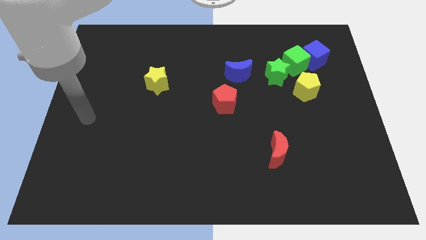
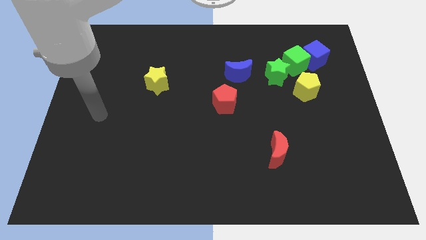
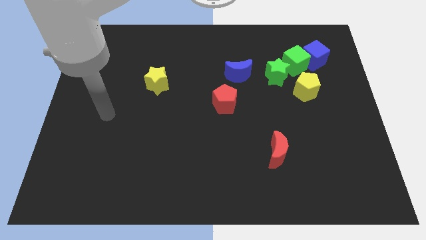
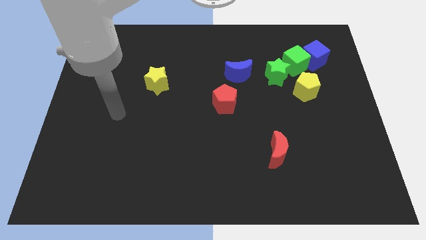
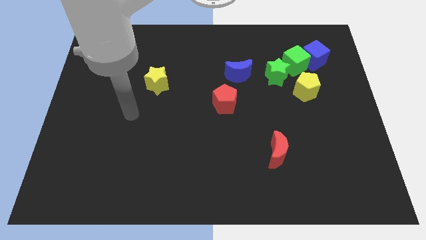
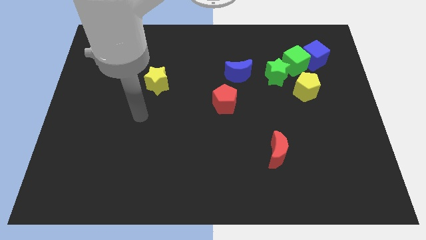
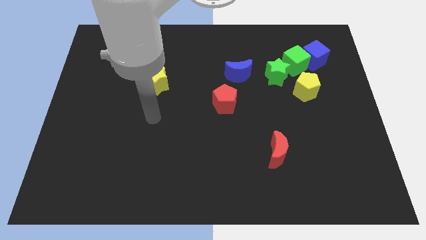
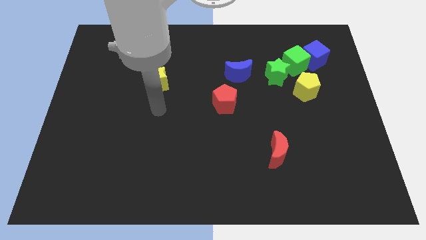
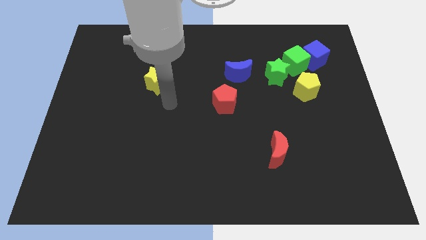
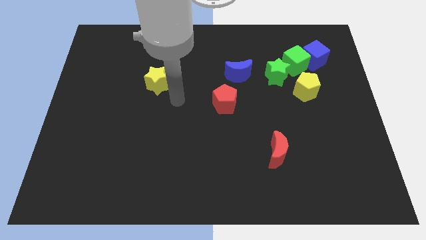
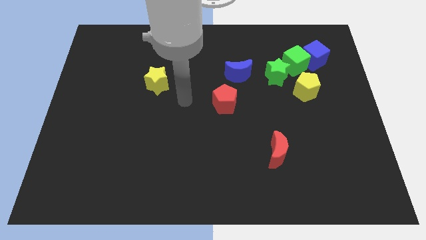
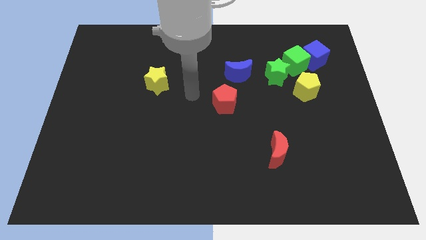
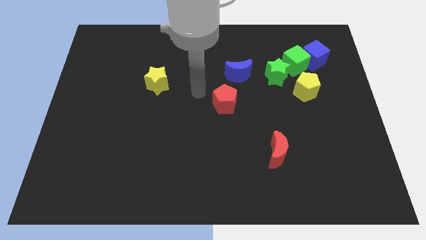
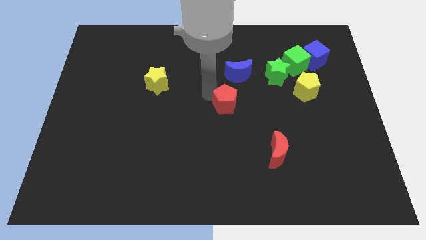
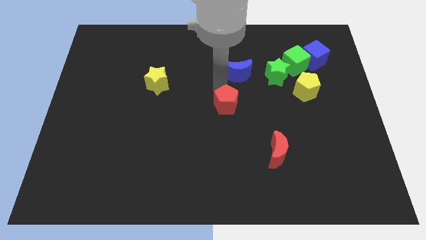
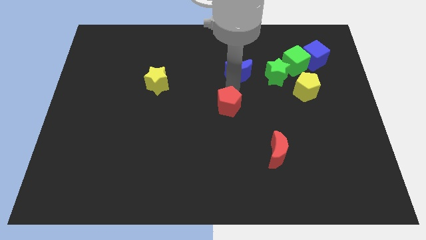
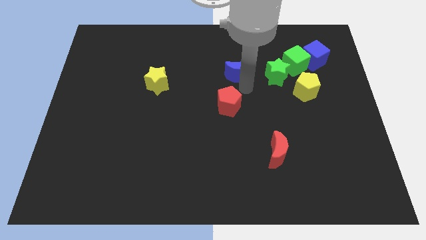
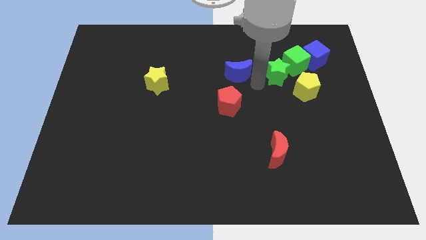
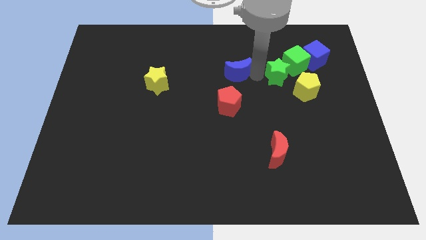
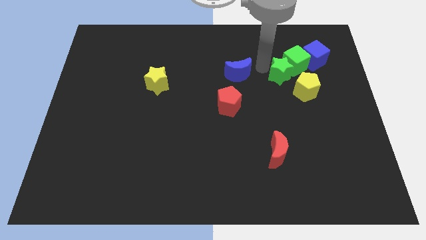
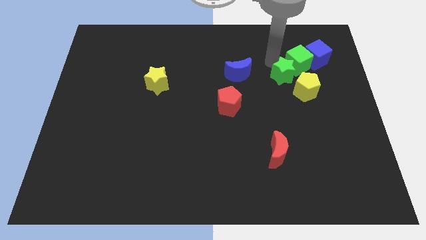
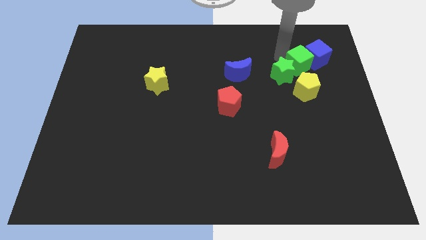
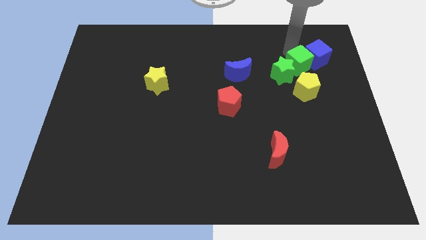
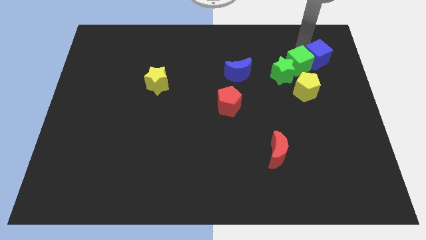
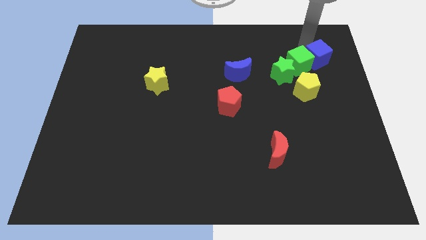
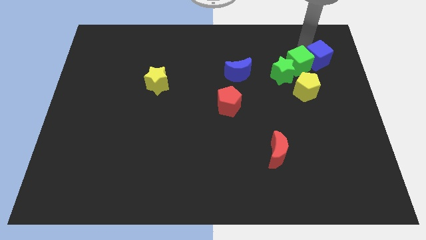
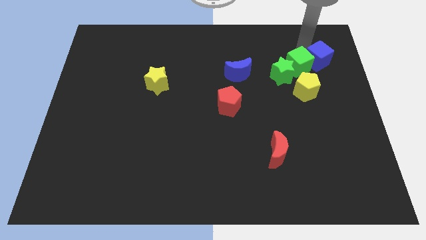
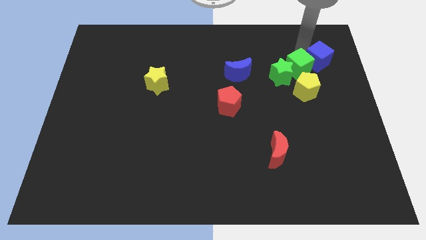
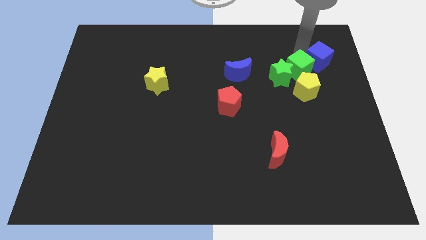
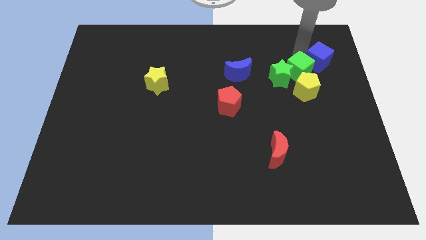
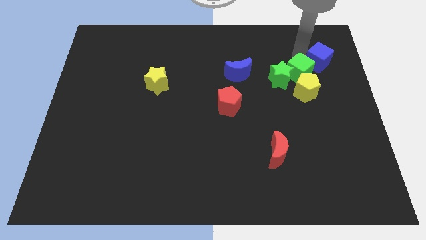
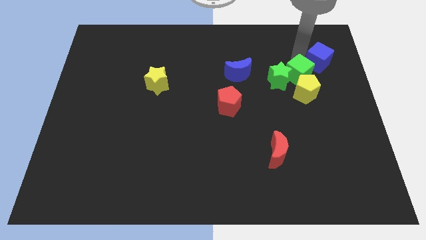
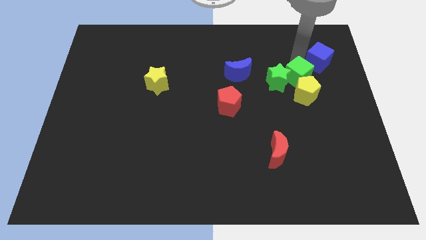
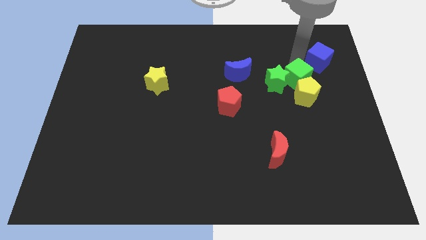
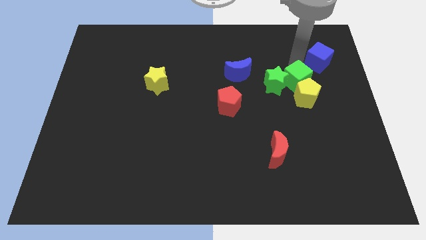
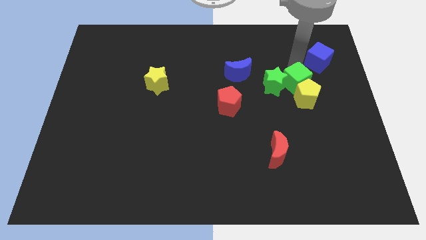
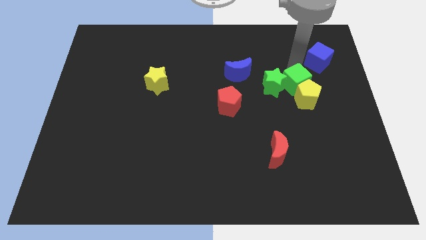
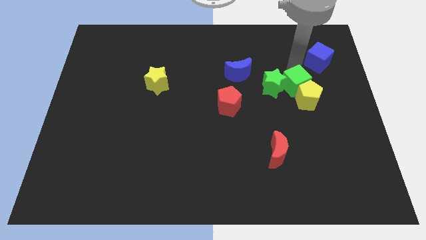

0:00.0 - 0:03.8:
slide the green cube downwards slightly

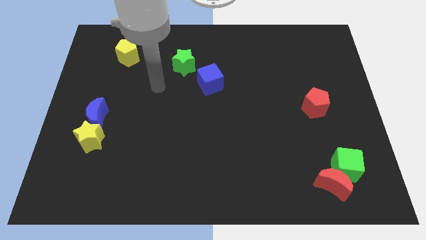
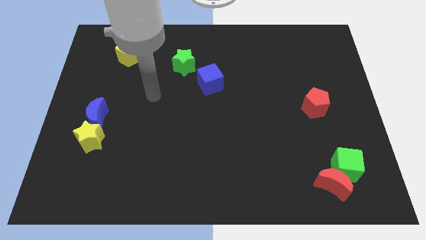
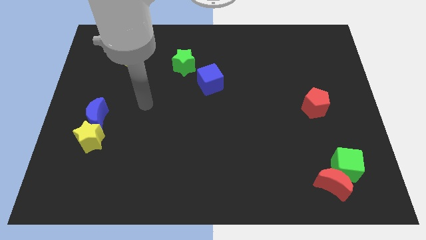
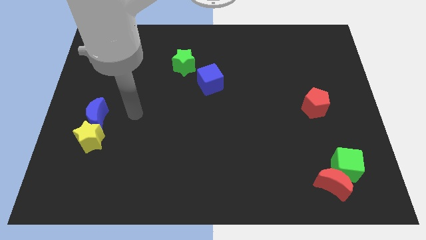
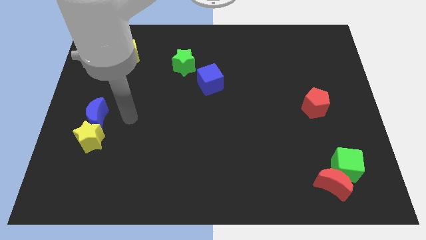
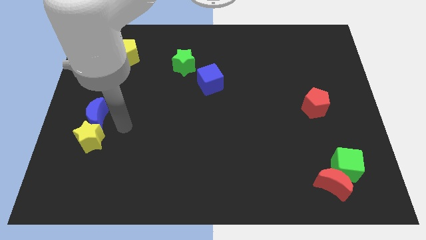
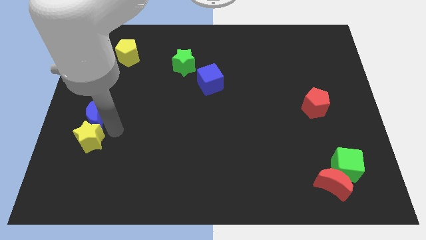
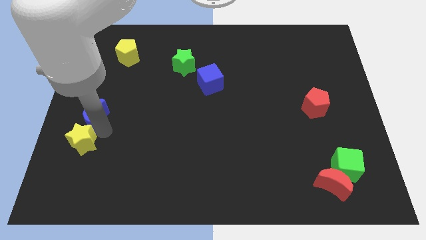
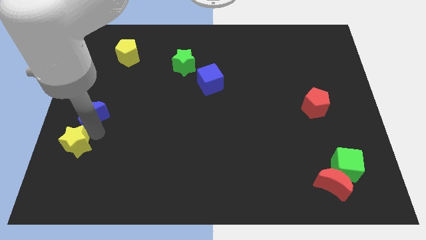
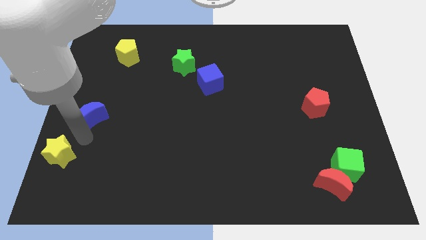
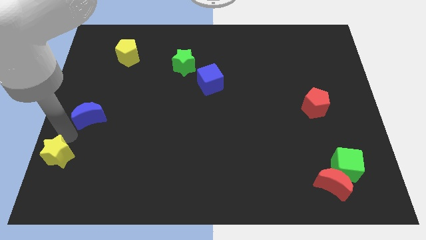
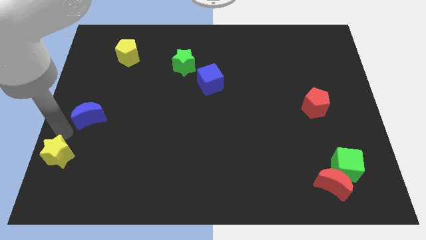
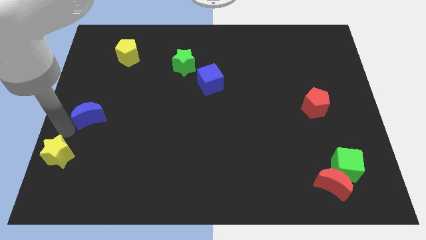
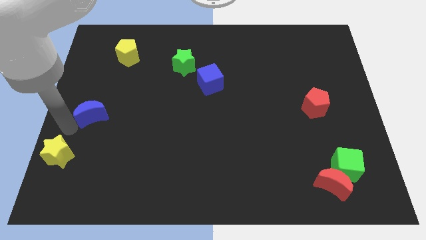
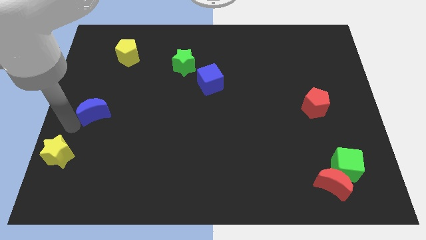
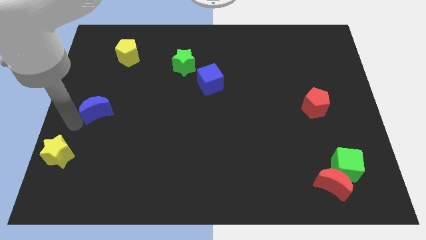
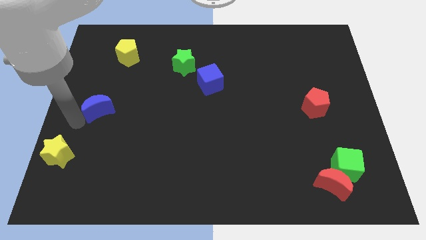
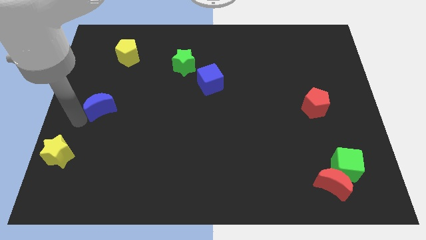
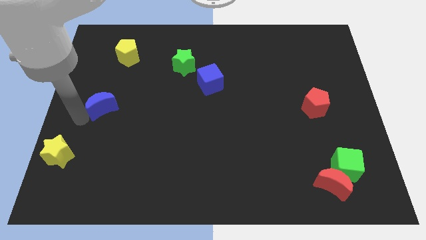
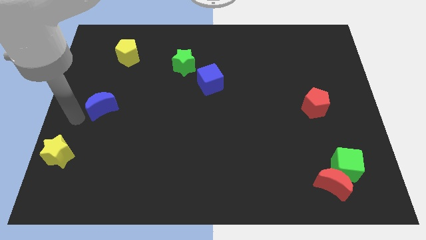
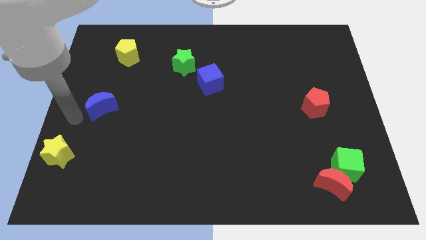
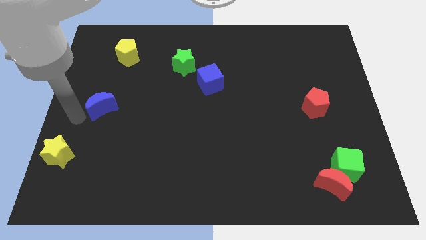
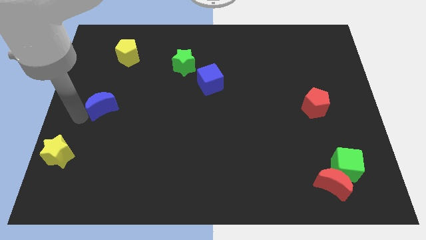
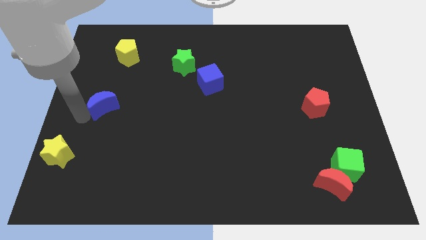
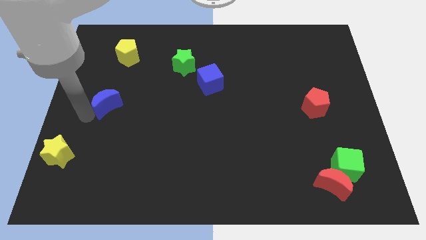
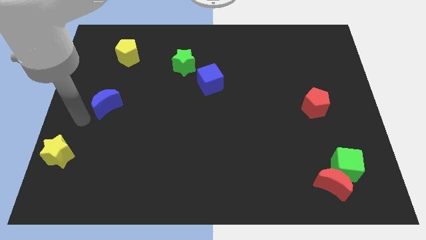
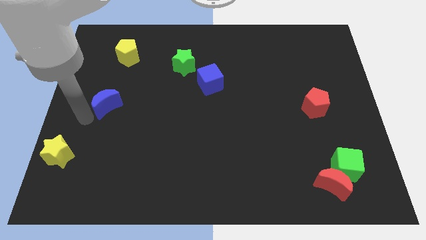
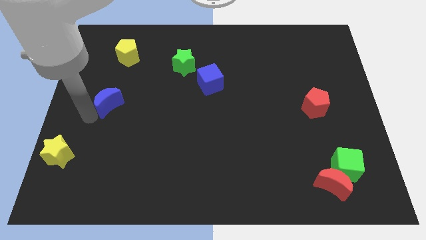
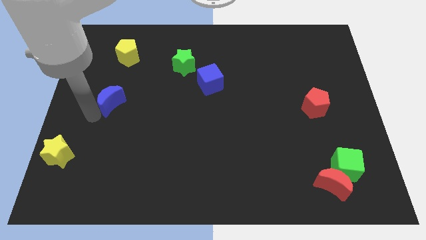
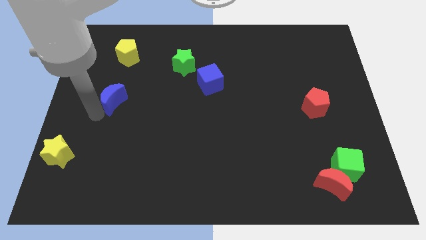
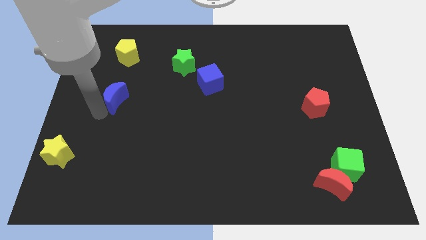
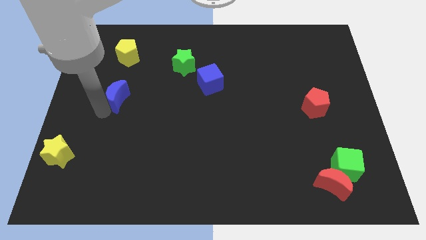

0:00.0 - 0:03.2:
move the blue moon a little upwards and right diagonally

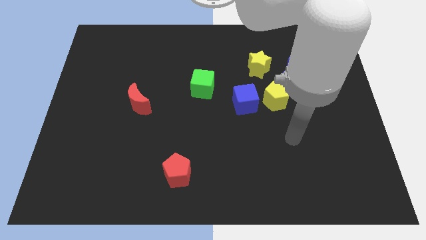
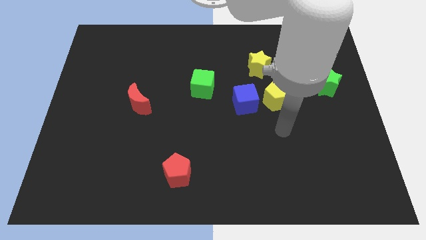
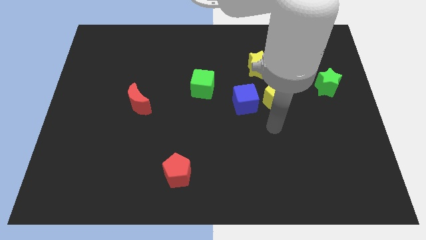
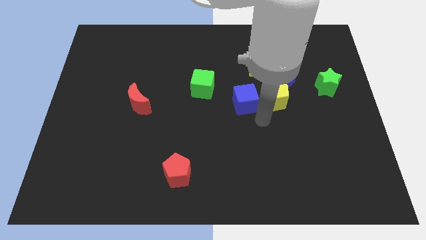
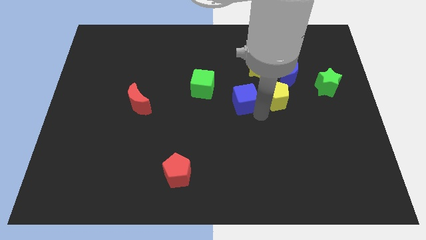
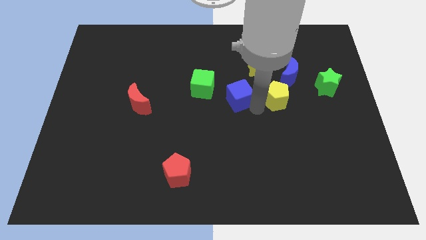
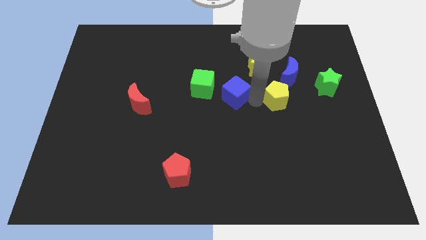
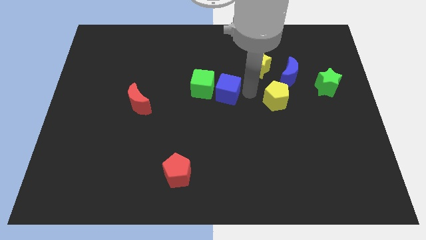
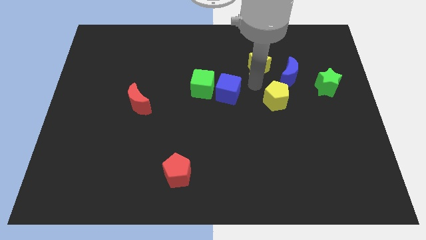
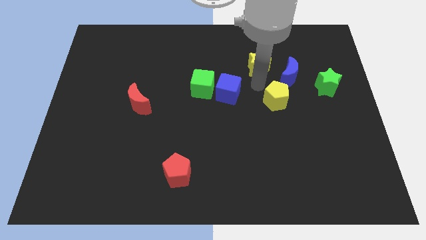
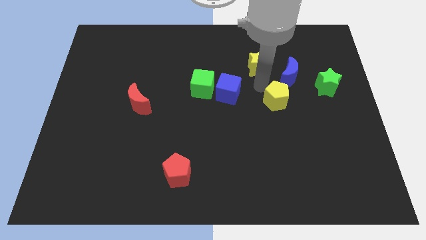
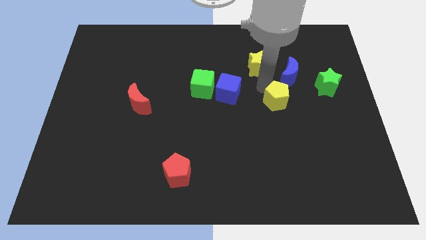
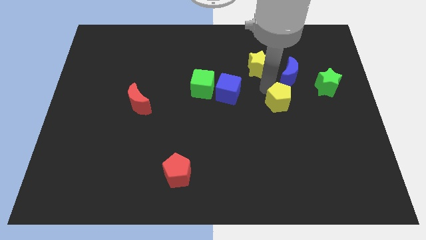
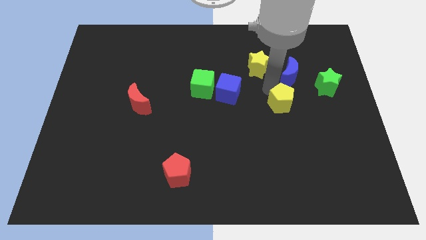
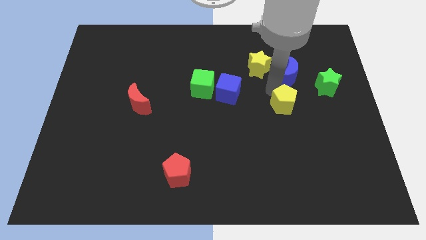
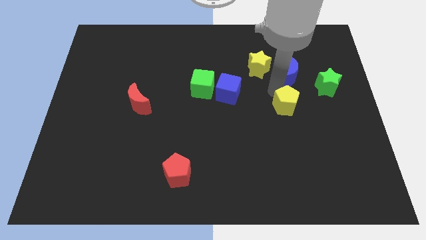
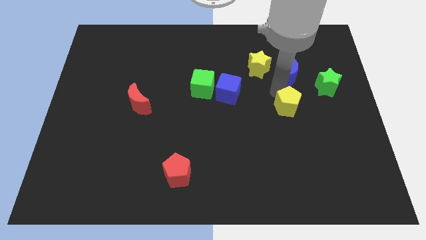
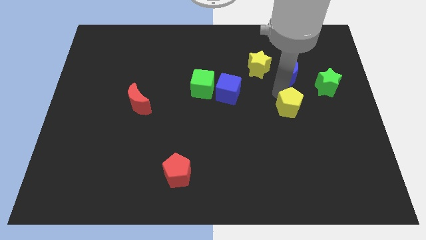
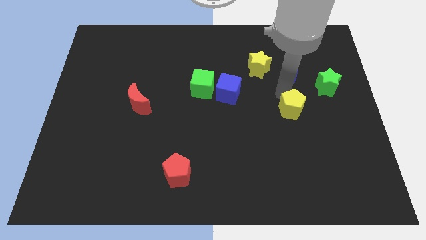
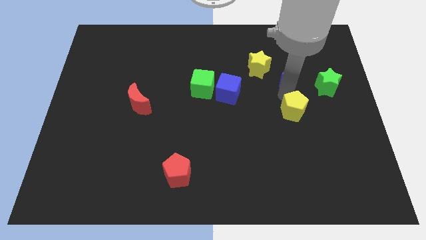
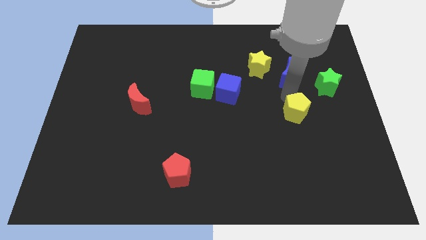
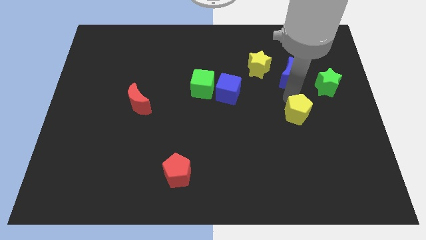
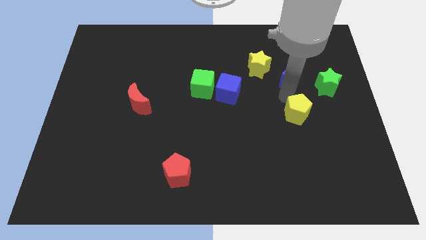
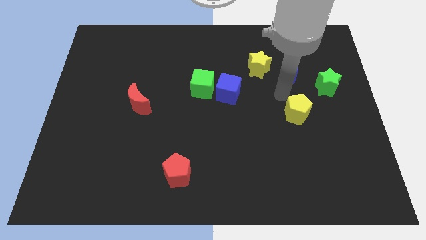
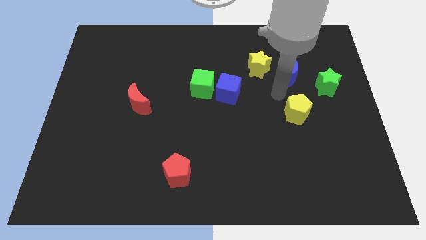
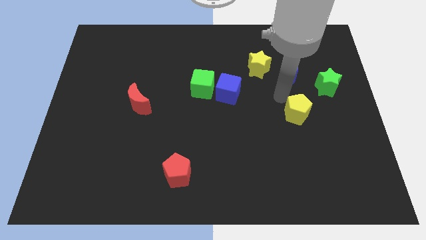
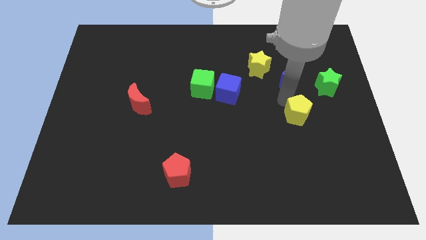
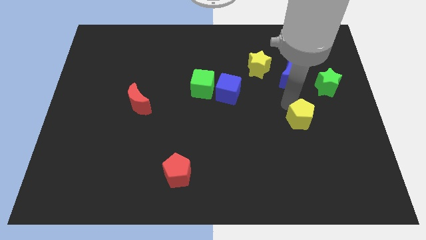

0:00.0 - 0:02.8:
slightly move the yellow pentagon down and to the right
